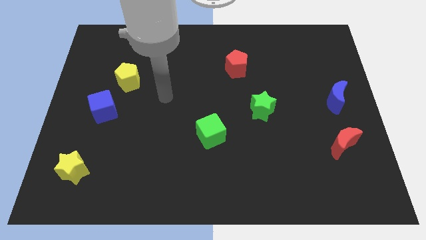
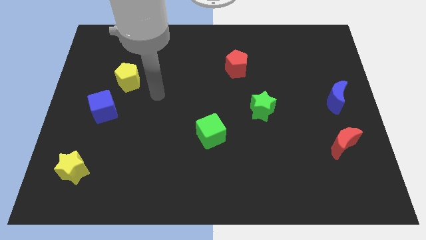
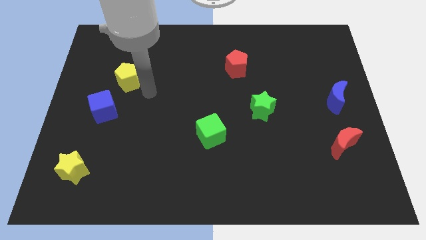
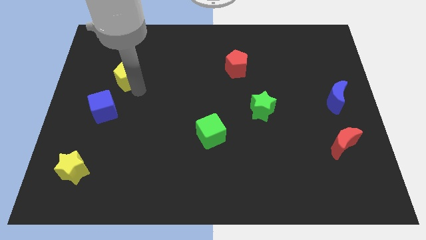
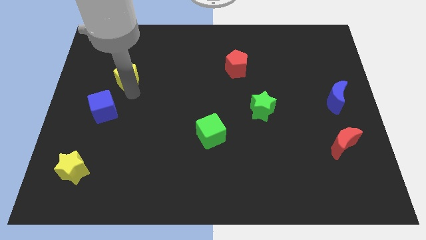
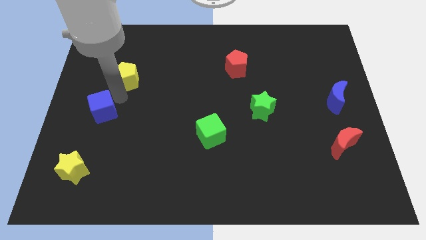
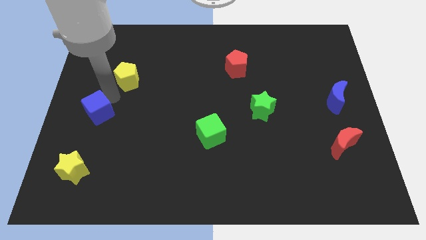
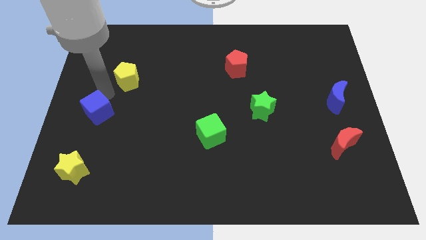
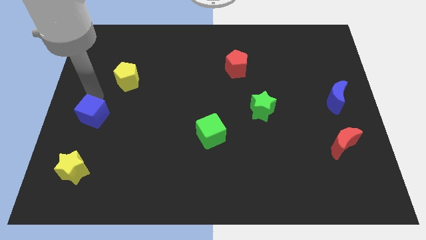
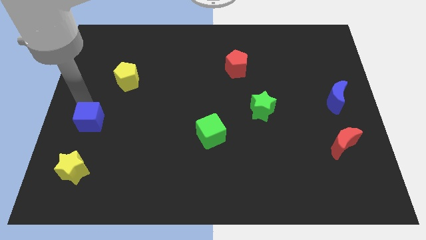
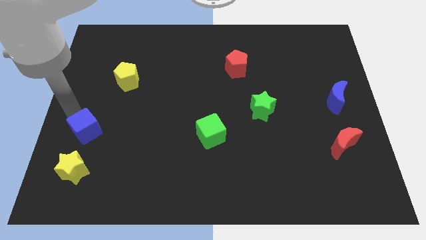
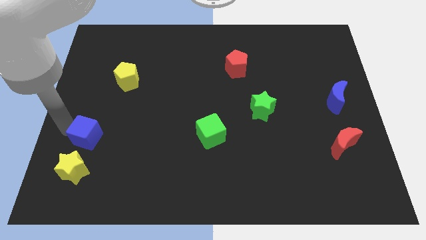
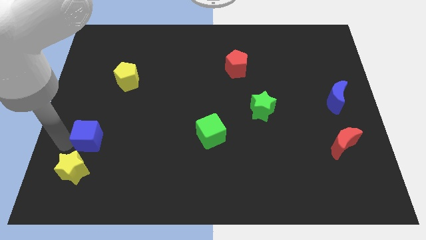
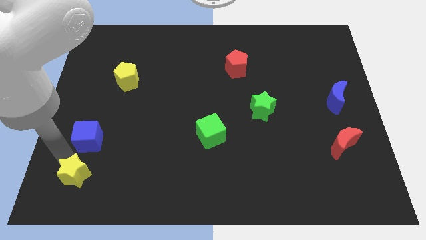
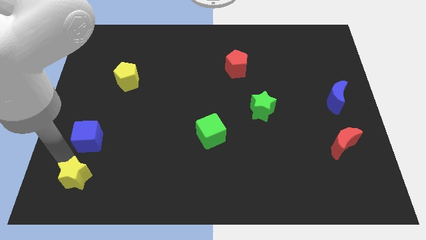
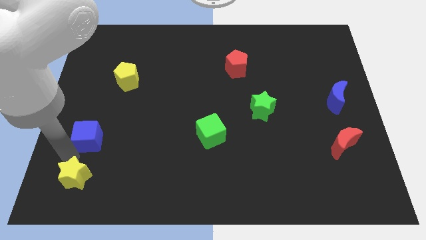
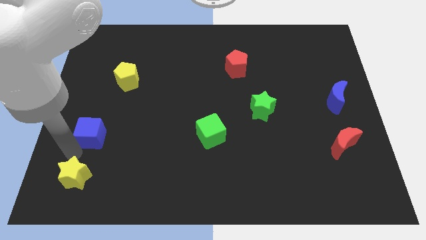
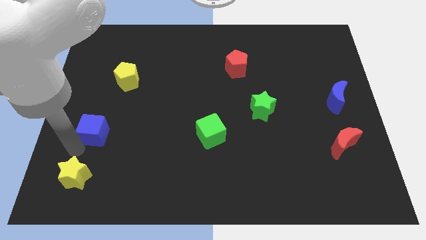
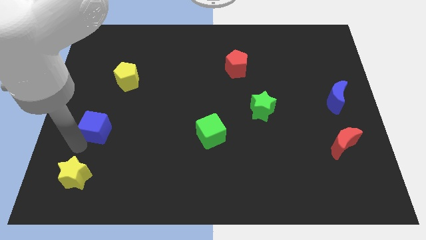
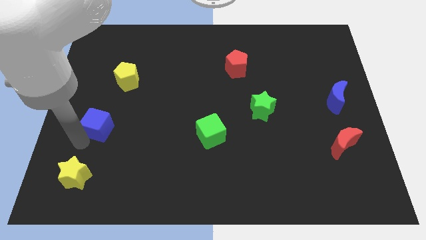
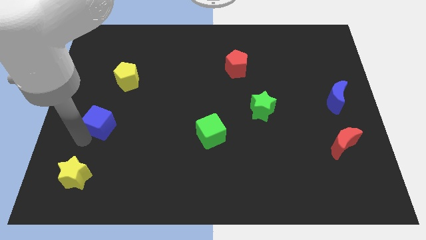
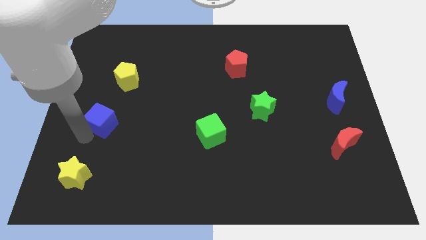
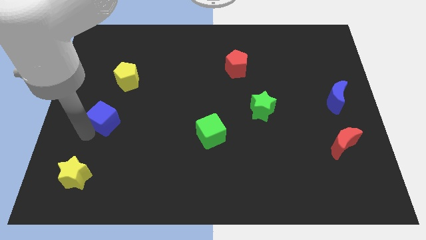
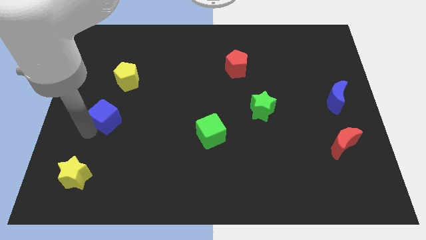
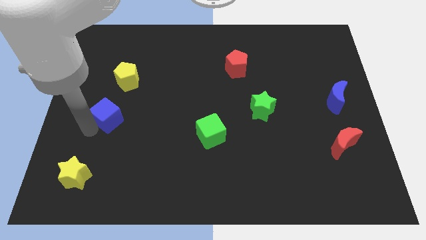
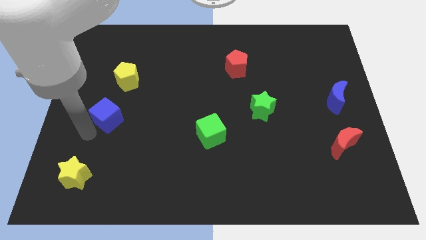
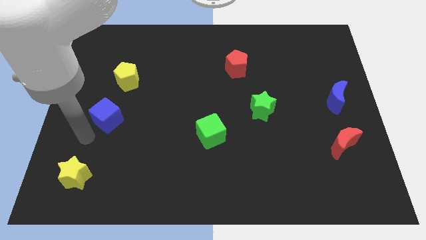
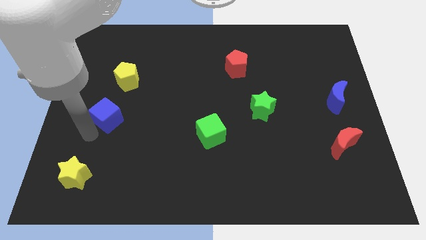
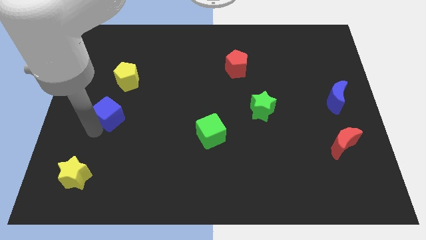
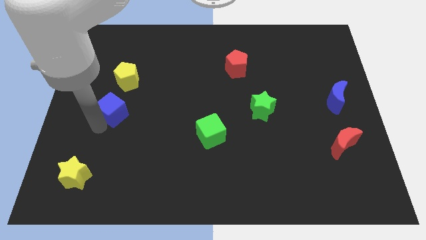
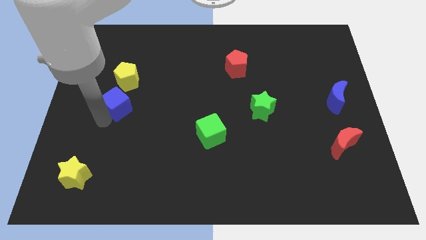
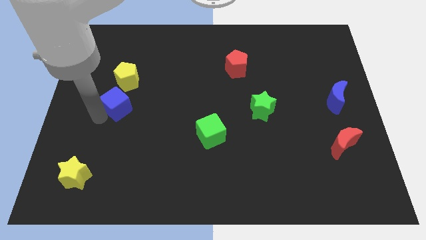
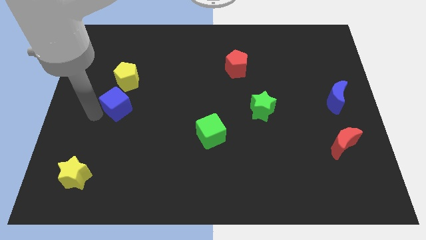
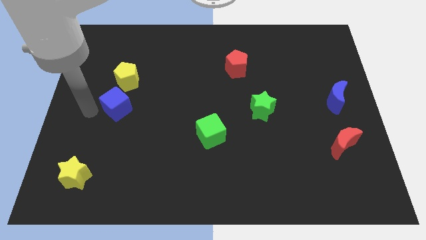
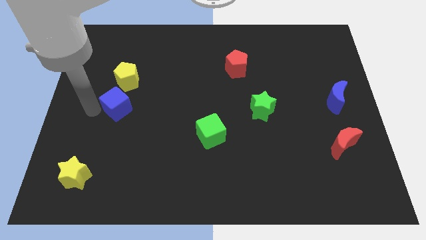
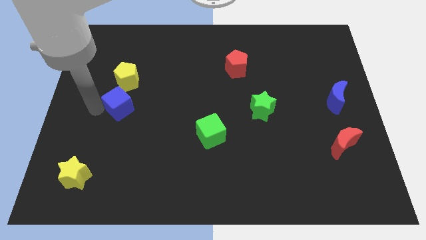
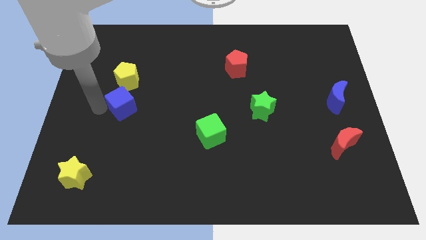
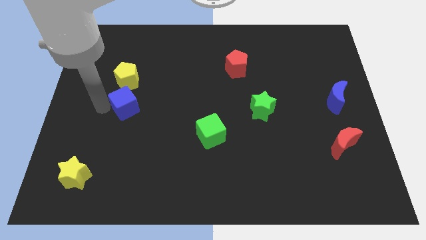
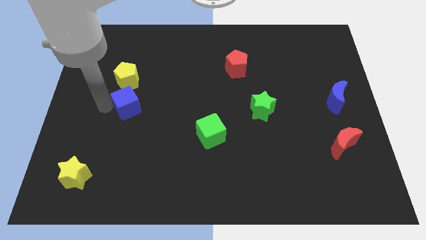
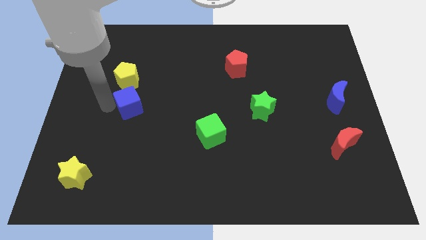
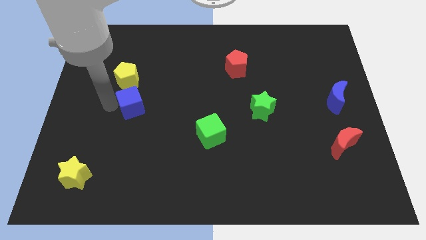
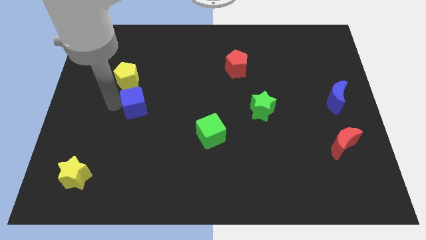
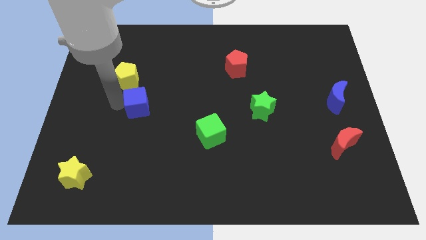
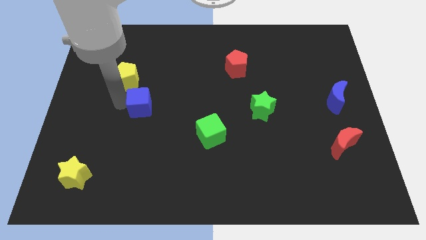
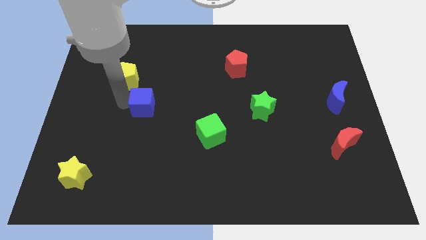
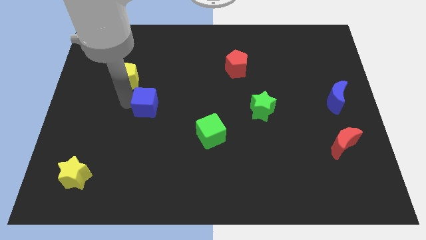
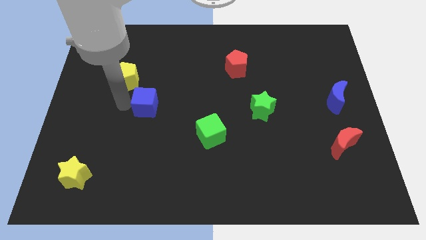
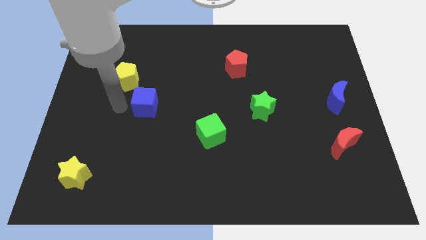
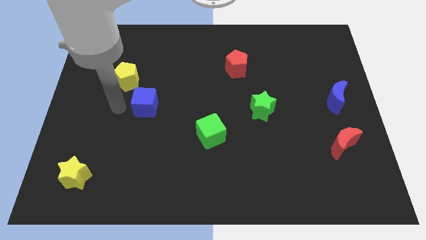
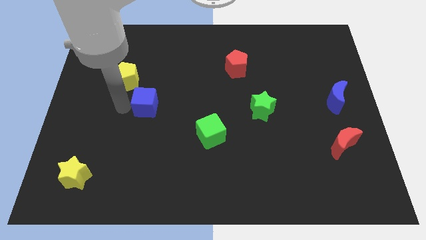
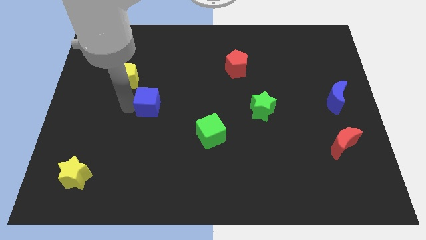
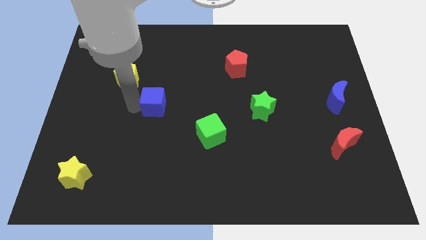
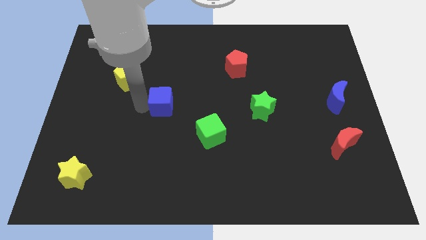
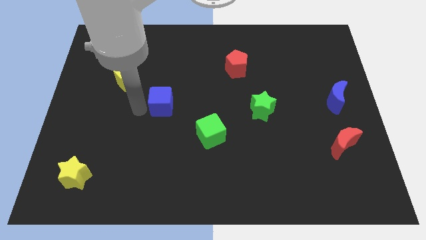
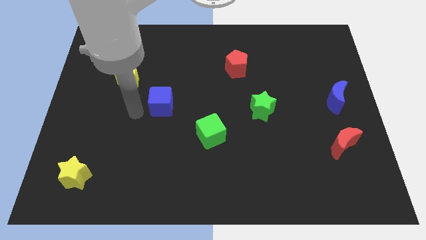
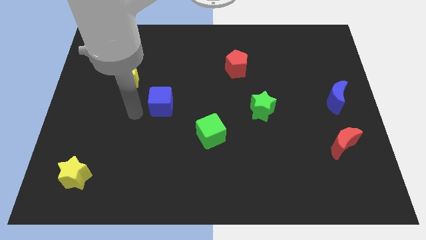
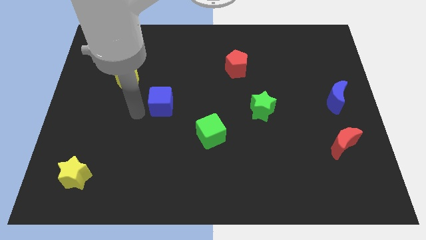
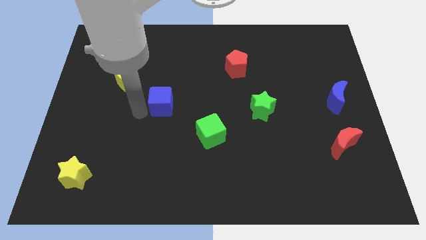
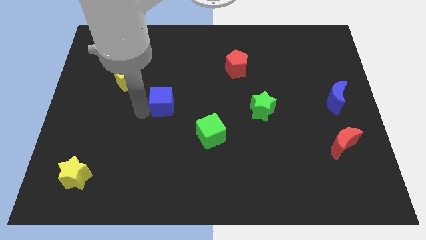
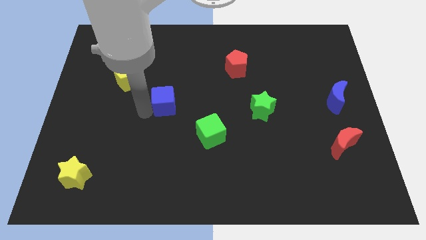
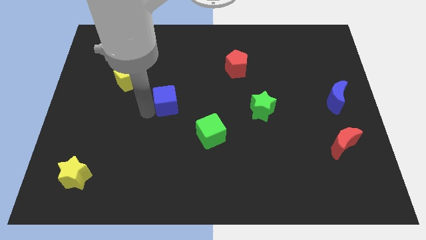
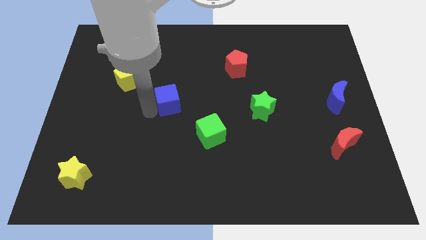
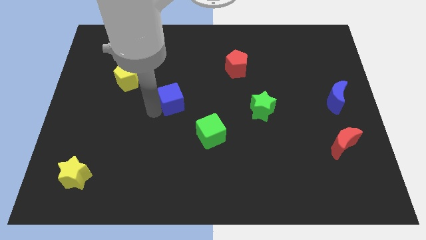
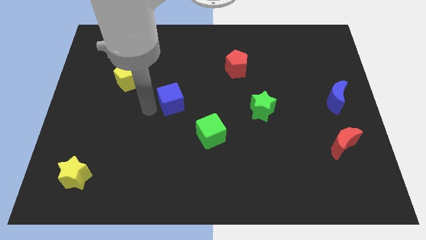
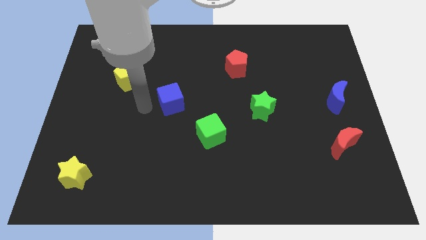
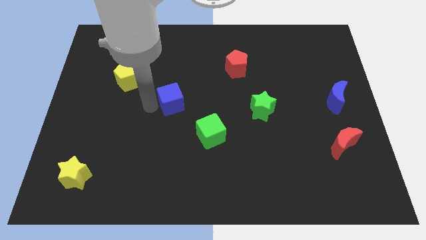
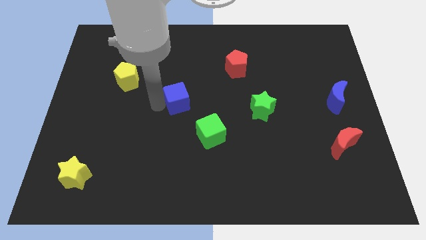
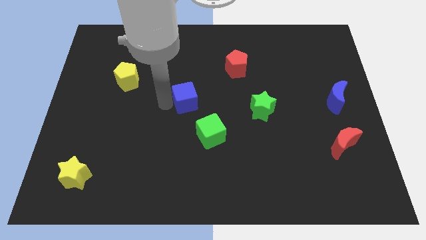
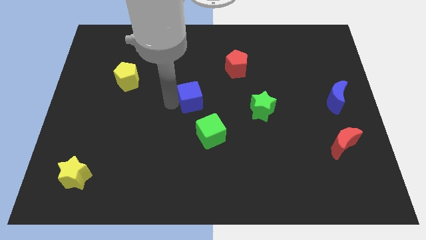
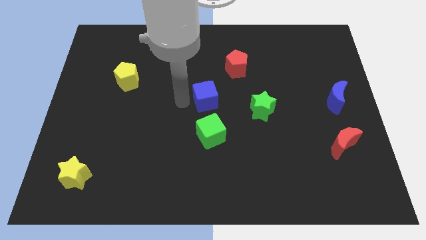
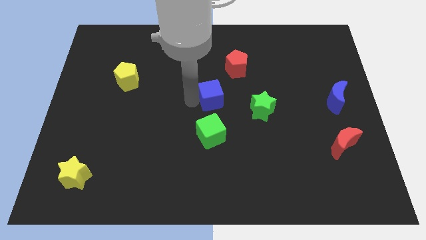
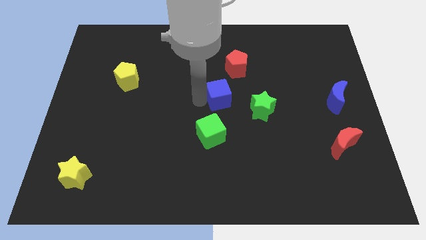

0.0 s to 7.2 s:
put the blue cube to the top left side of the green star
